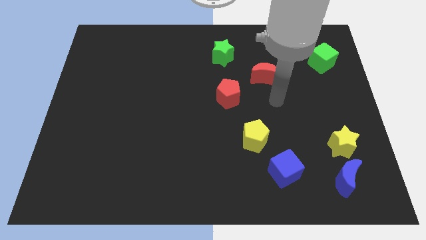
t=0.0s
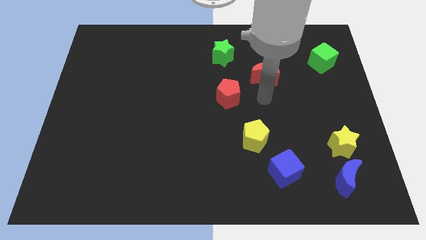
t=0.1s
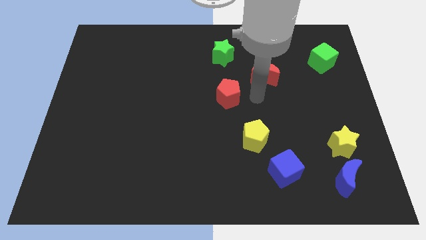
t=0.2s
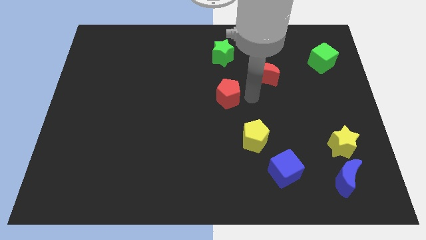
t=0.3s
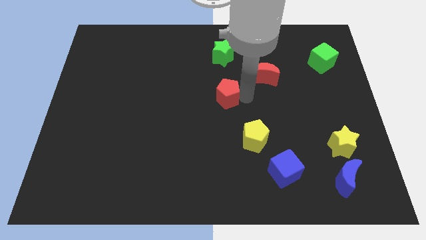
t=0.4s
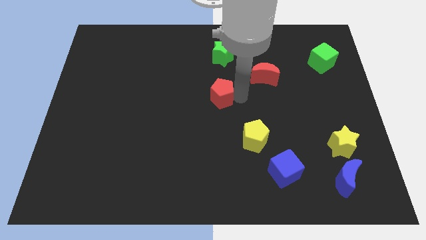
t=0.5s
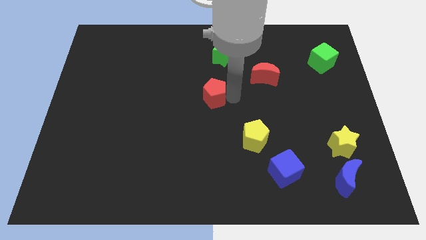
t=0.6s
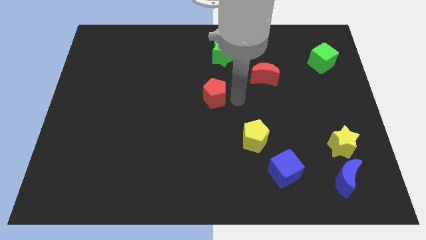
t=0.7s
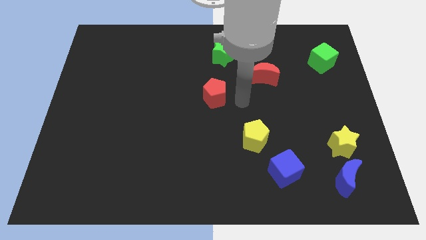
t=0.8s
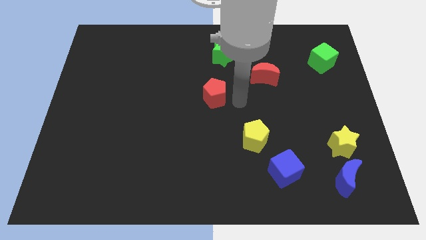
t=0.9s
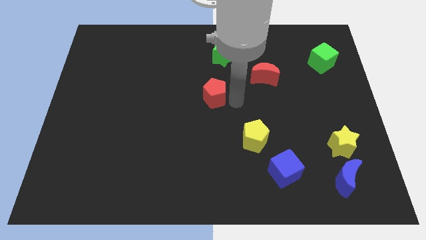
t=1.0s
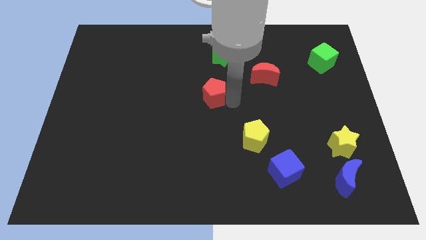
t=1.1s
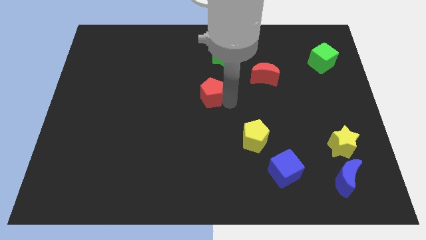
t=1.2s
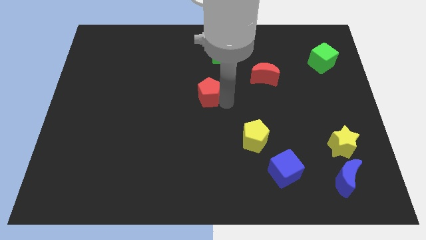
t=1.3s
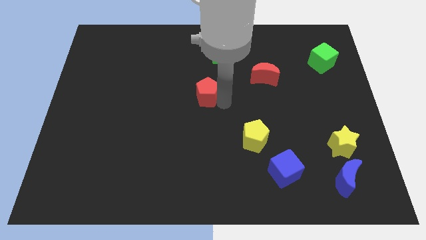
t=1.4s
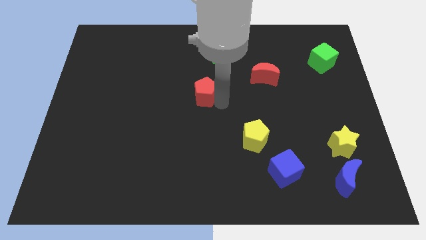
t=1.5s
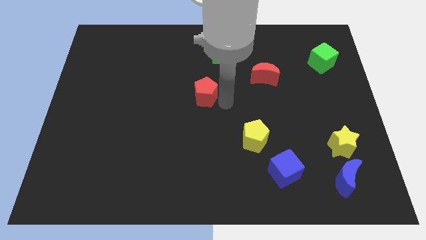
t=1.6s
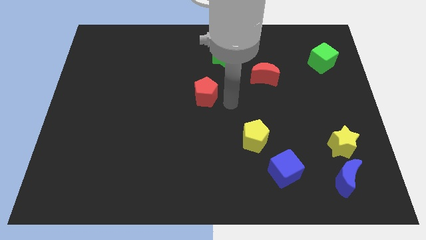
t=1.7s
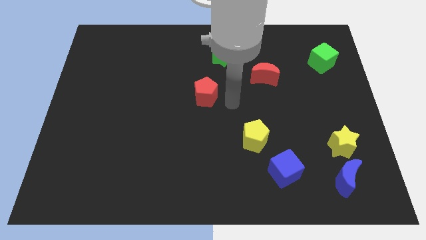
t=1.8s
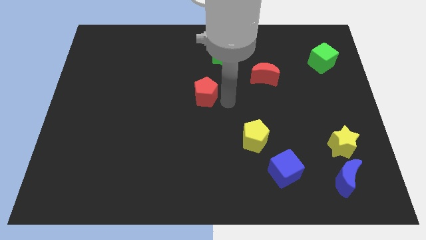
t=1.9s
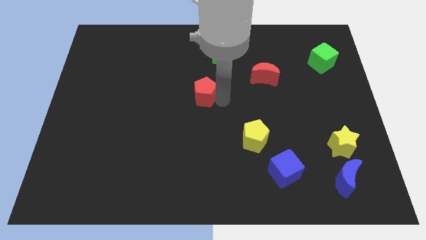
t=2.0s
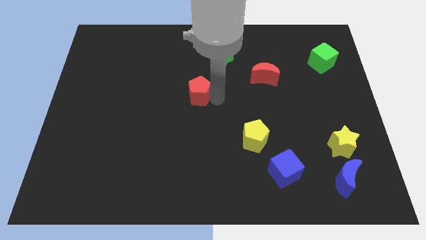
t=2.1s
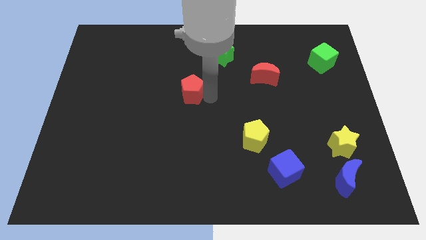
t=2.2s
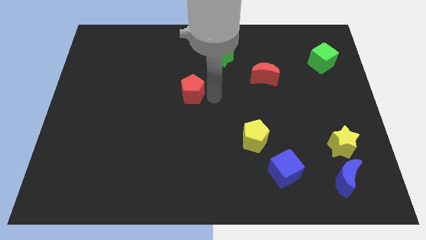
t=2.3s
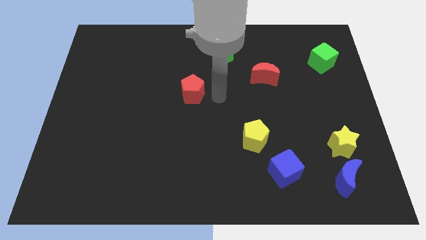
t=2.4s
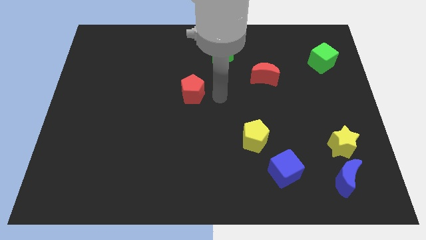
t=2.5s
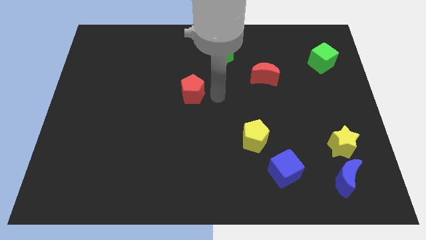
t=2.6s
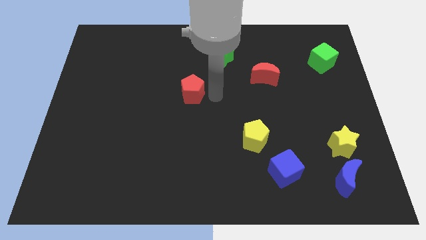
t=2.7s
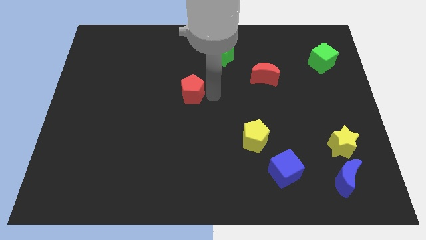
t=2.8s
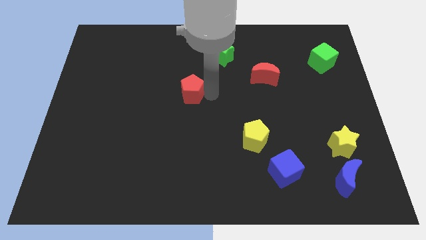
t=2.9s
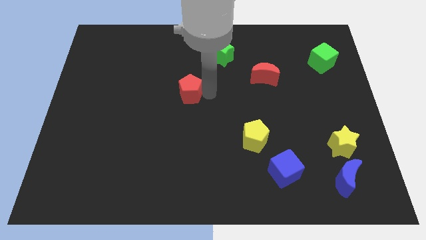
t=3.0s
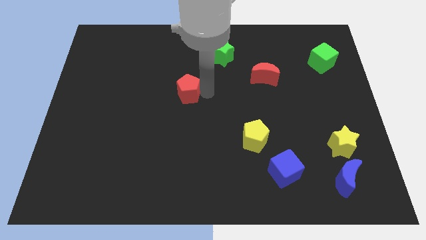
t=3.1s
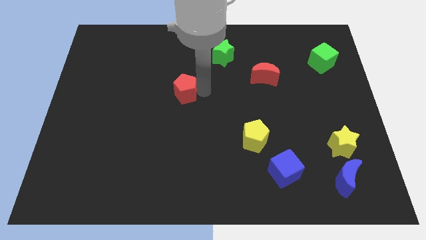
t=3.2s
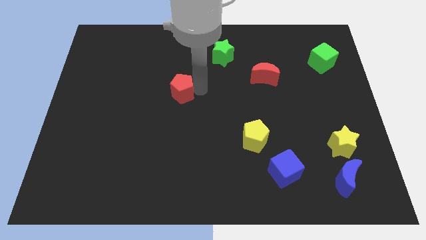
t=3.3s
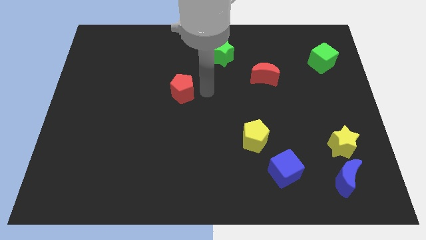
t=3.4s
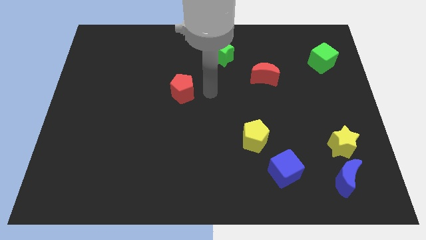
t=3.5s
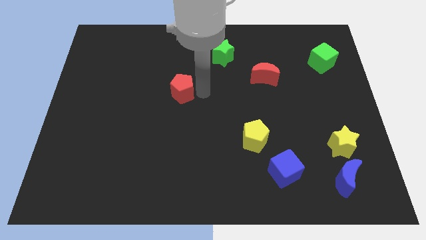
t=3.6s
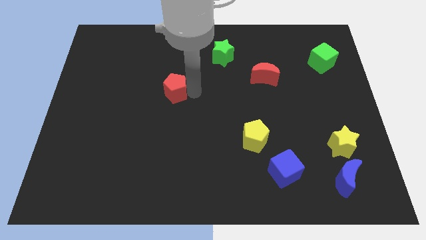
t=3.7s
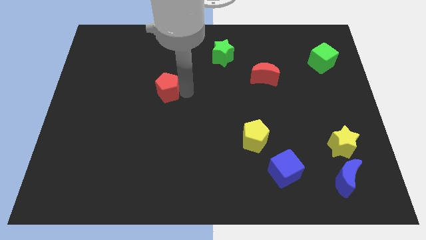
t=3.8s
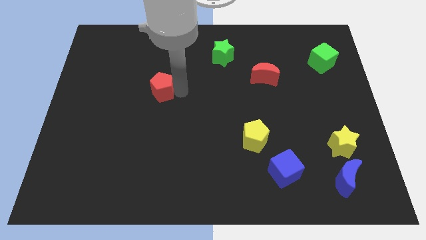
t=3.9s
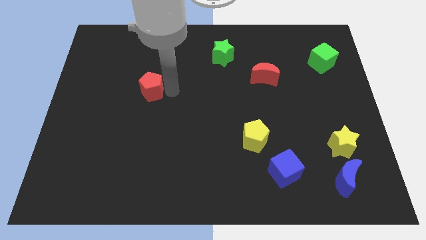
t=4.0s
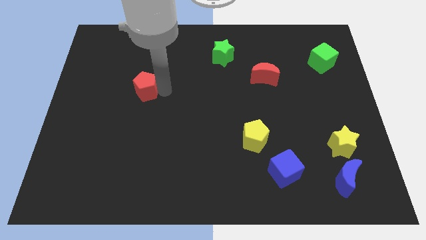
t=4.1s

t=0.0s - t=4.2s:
move the red pentagon to the left

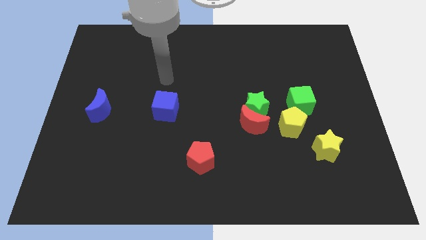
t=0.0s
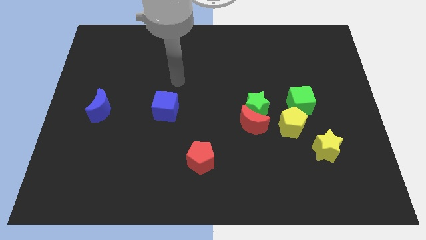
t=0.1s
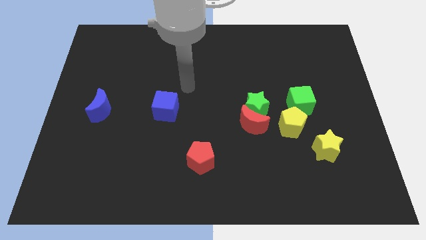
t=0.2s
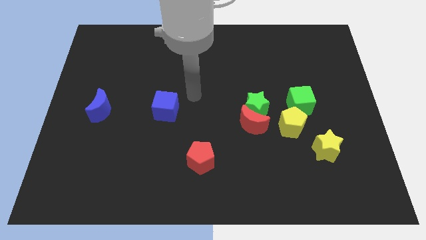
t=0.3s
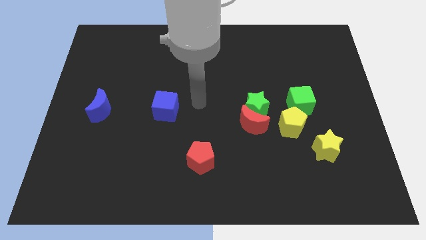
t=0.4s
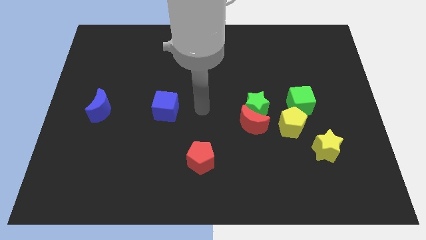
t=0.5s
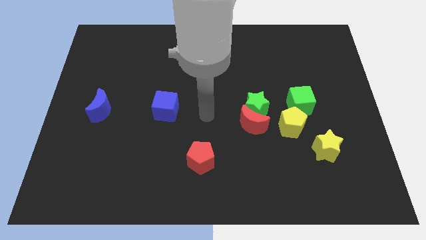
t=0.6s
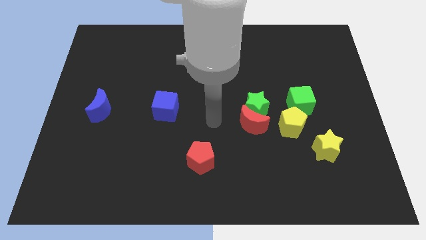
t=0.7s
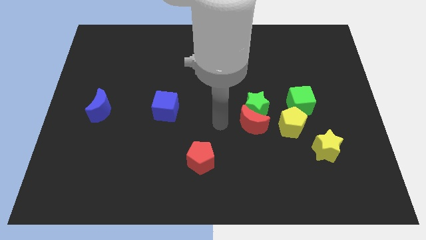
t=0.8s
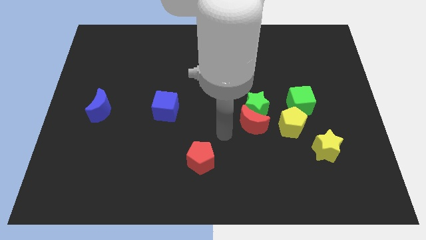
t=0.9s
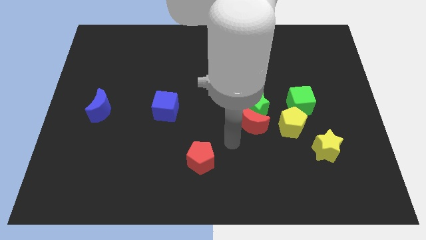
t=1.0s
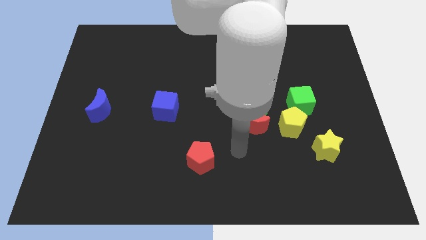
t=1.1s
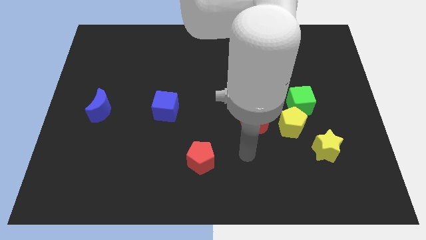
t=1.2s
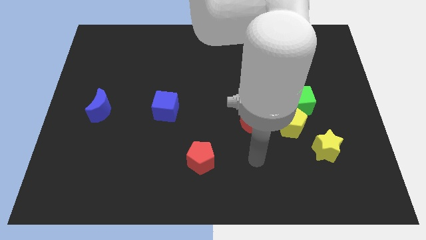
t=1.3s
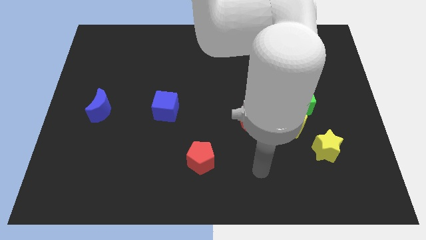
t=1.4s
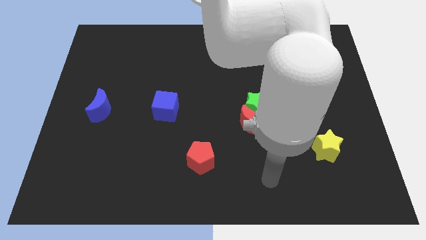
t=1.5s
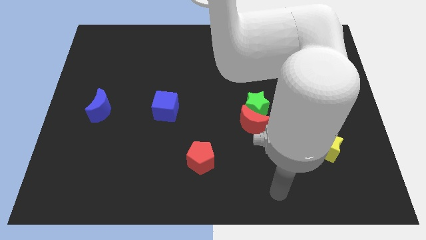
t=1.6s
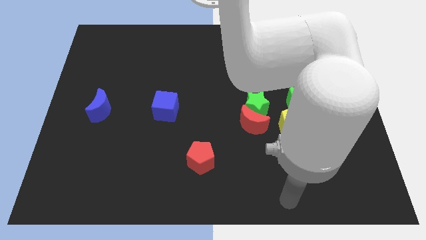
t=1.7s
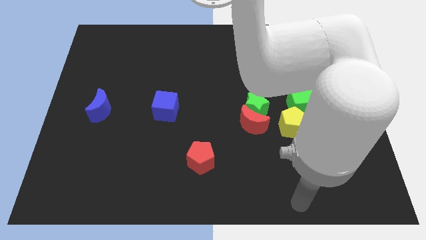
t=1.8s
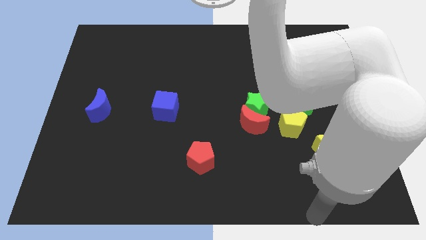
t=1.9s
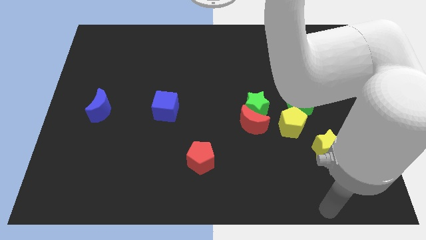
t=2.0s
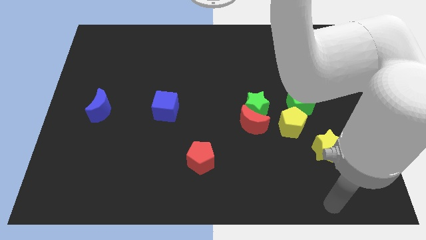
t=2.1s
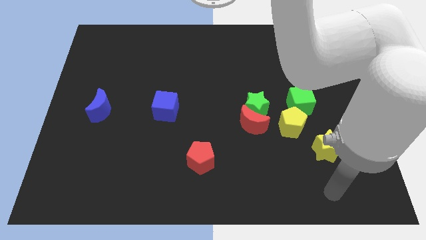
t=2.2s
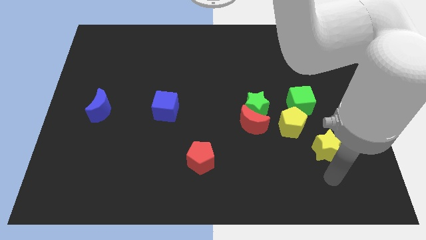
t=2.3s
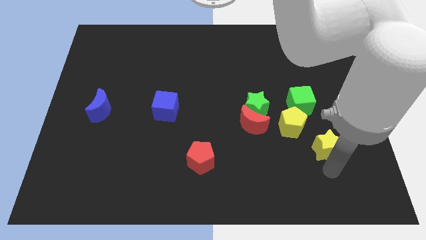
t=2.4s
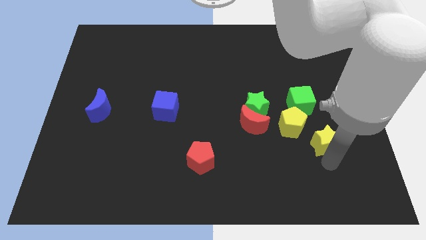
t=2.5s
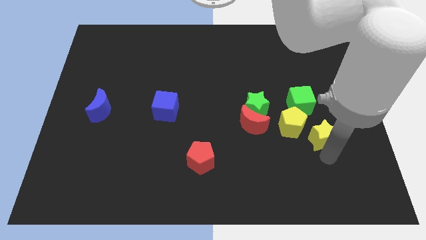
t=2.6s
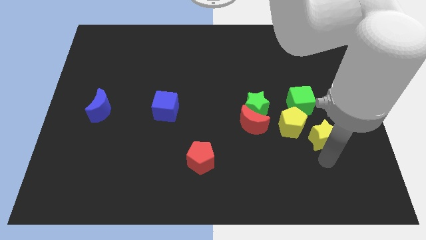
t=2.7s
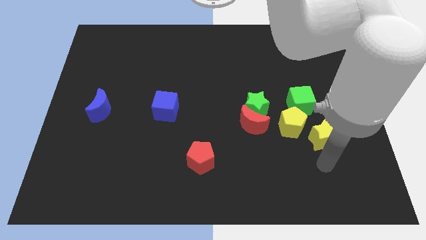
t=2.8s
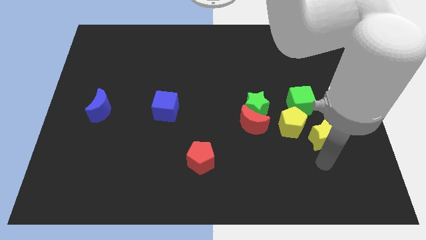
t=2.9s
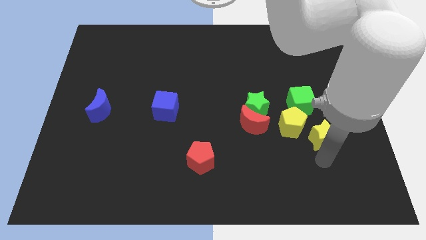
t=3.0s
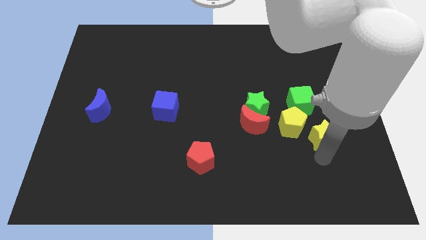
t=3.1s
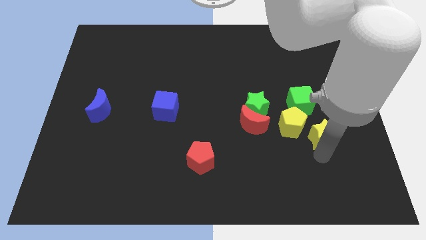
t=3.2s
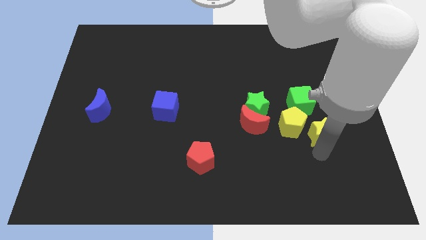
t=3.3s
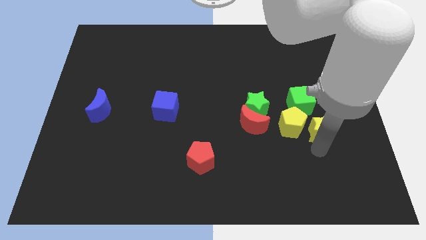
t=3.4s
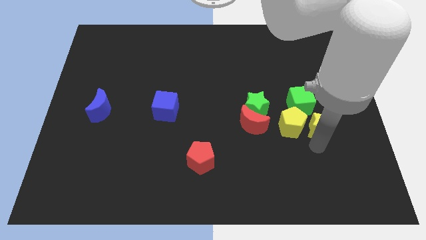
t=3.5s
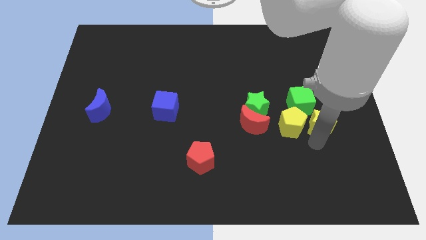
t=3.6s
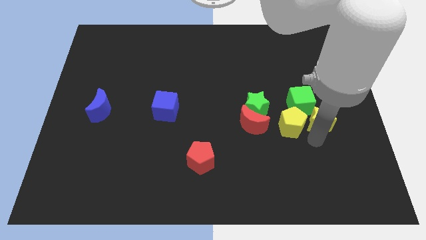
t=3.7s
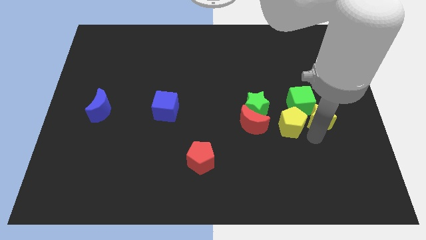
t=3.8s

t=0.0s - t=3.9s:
push the yellow star a little up
